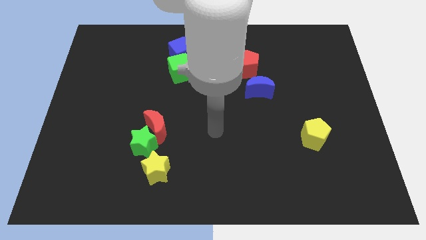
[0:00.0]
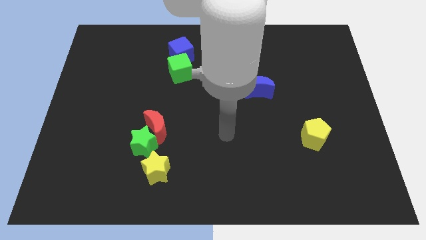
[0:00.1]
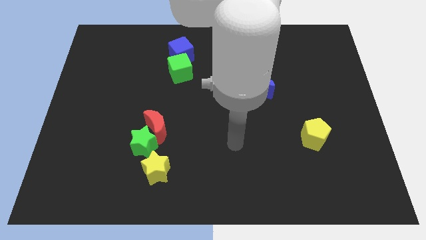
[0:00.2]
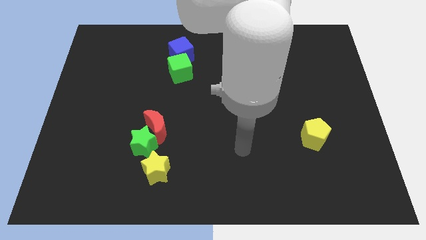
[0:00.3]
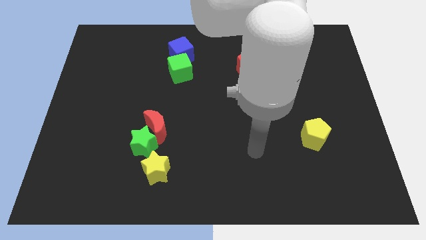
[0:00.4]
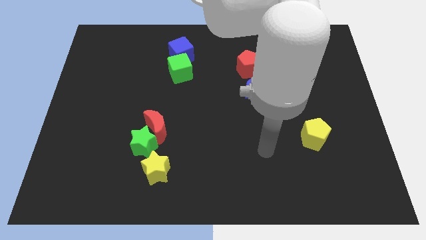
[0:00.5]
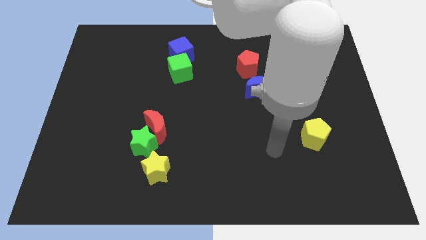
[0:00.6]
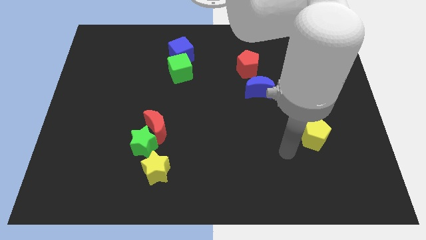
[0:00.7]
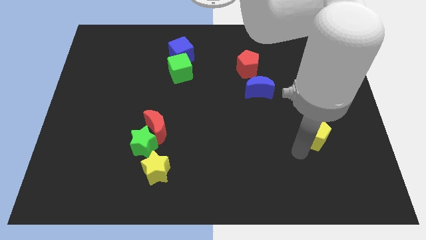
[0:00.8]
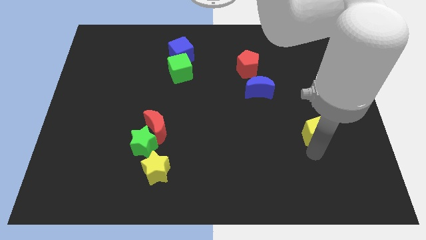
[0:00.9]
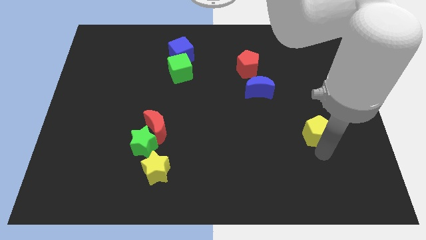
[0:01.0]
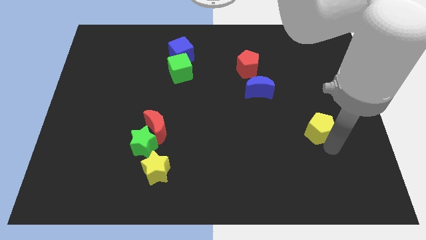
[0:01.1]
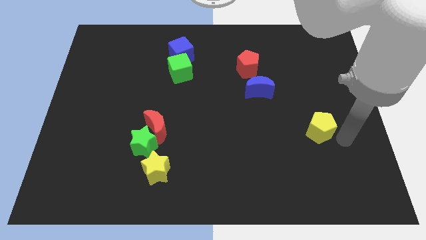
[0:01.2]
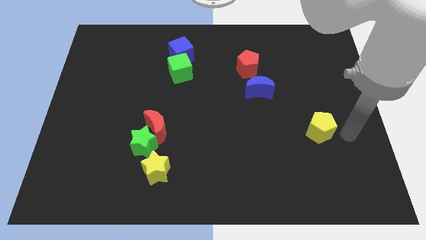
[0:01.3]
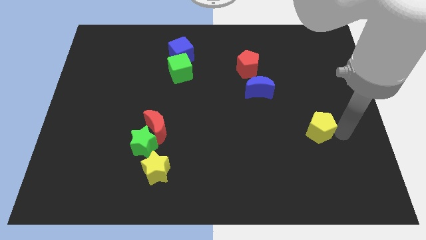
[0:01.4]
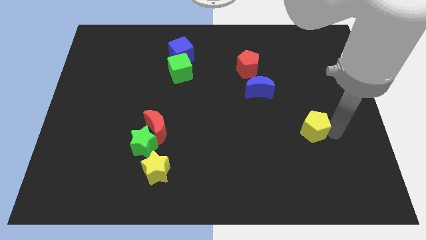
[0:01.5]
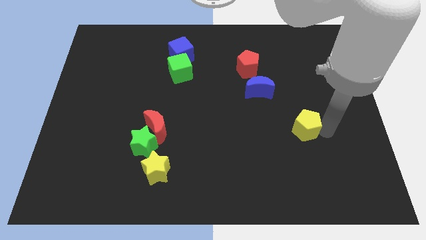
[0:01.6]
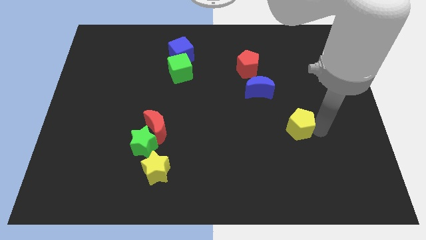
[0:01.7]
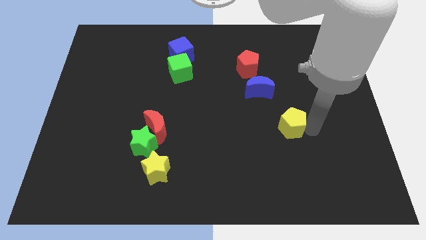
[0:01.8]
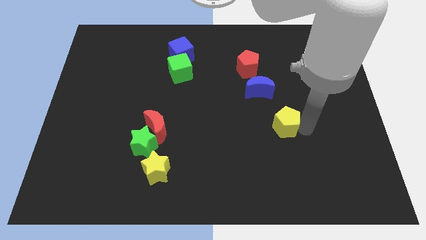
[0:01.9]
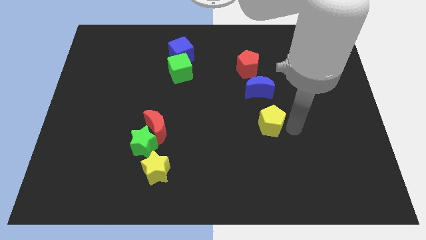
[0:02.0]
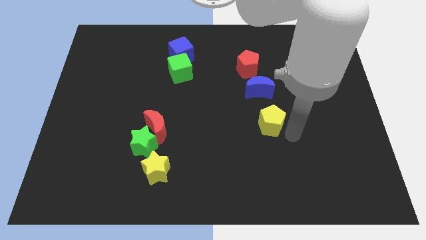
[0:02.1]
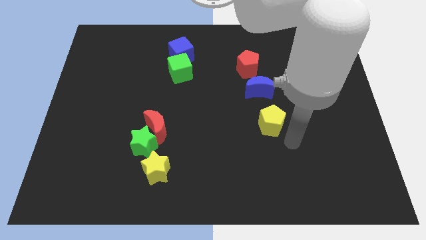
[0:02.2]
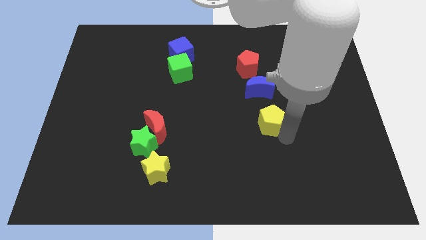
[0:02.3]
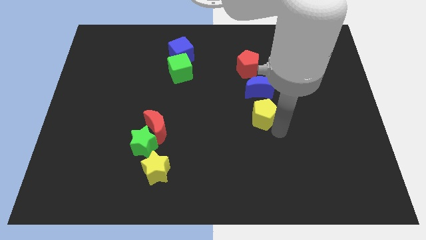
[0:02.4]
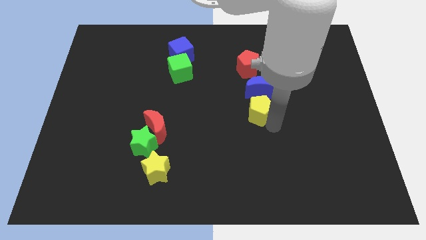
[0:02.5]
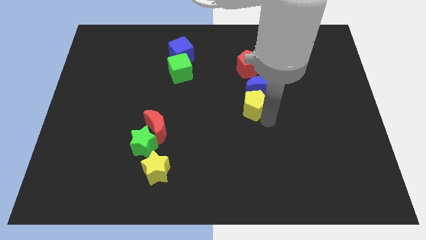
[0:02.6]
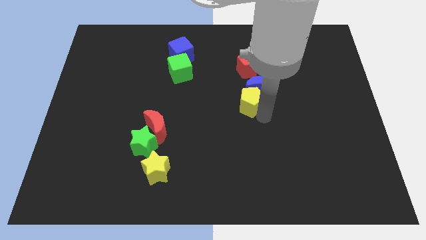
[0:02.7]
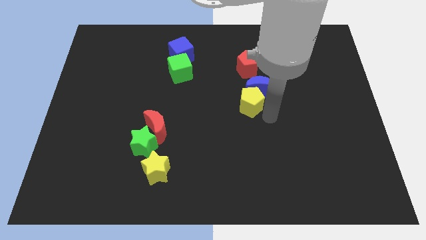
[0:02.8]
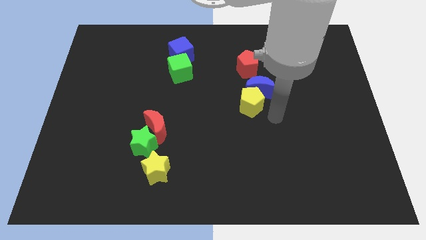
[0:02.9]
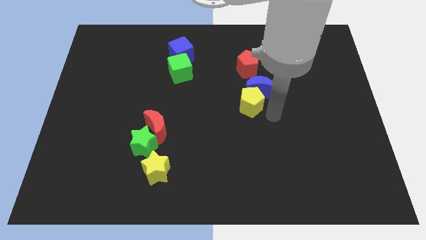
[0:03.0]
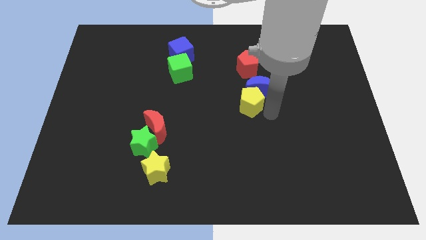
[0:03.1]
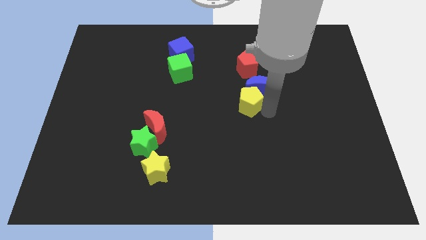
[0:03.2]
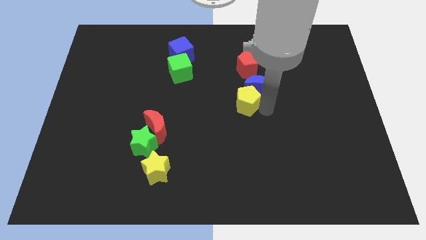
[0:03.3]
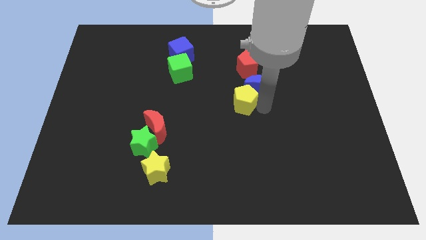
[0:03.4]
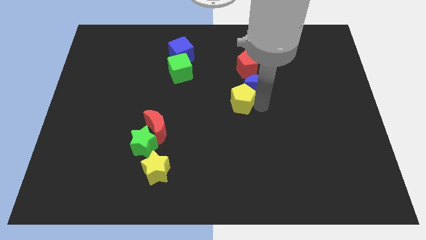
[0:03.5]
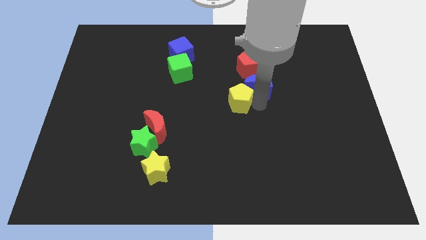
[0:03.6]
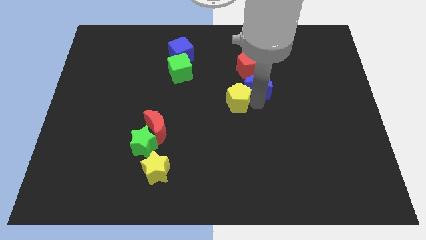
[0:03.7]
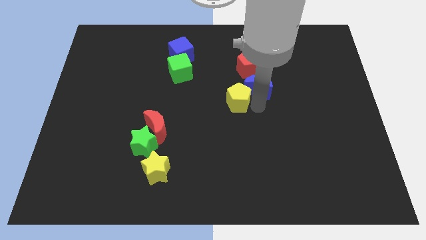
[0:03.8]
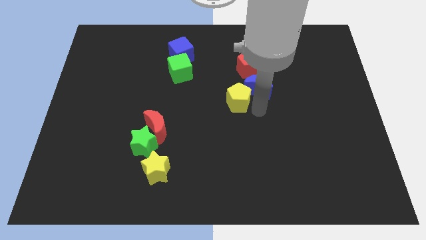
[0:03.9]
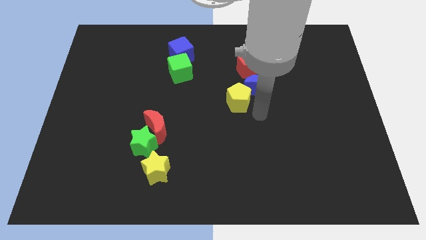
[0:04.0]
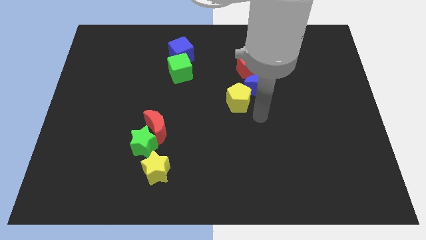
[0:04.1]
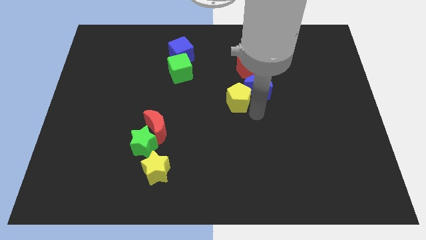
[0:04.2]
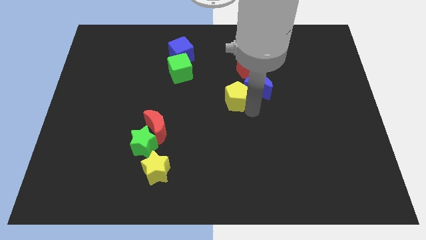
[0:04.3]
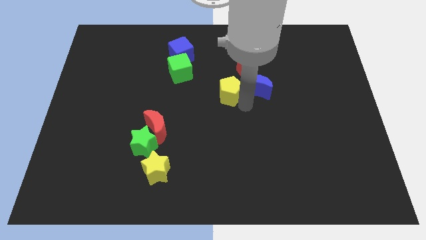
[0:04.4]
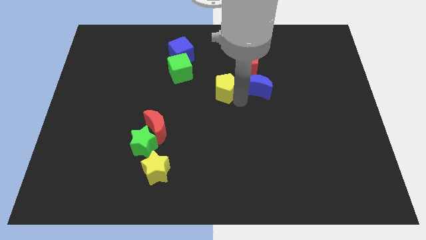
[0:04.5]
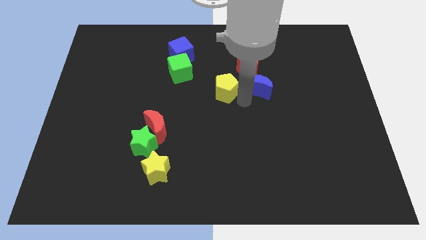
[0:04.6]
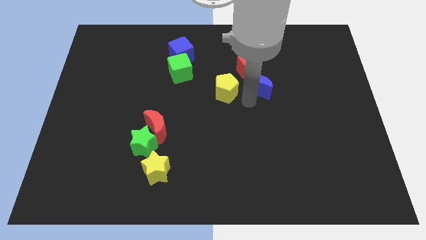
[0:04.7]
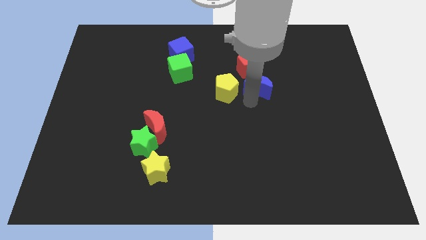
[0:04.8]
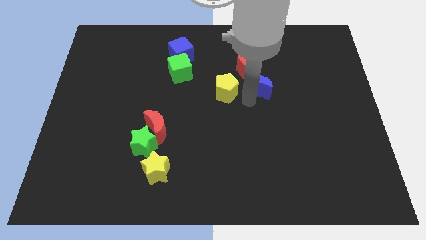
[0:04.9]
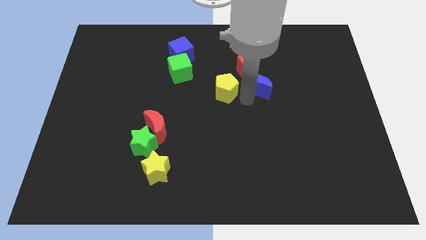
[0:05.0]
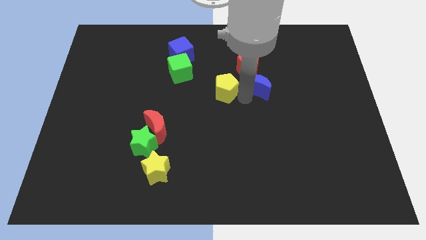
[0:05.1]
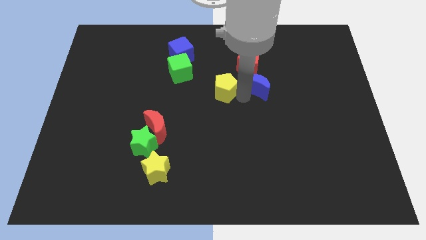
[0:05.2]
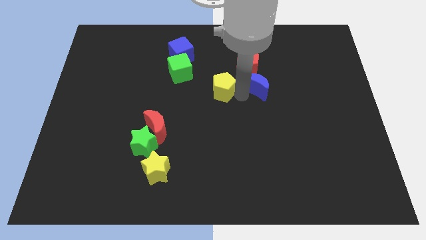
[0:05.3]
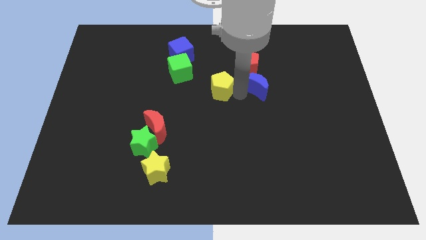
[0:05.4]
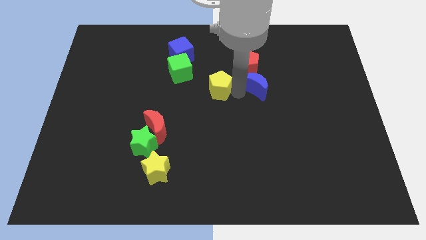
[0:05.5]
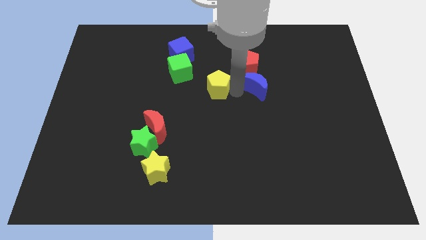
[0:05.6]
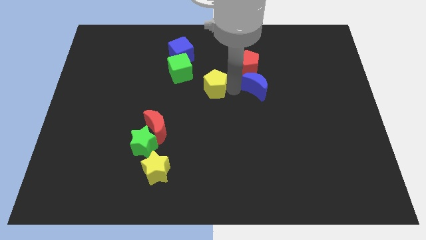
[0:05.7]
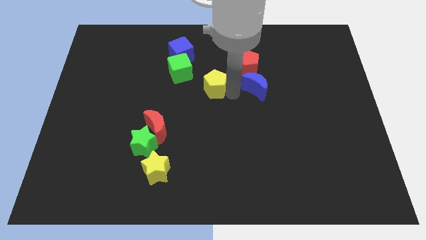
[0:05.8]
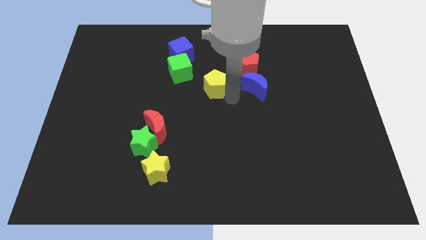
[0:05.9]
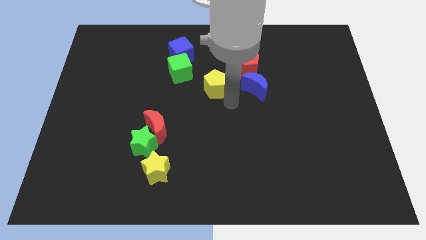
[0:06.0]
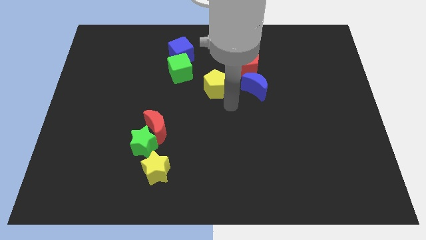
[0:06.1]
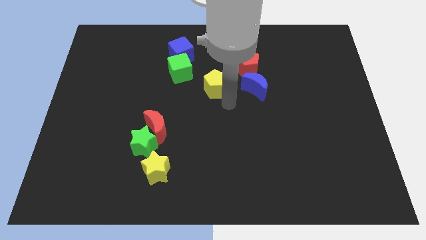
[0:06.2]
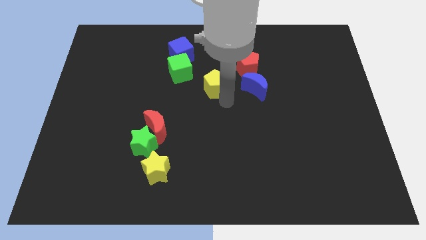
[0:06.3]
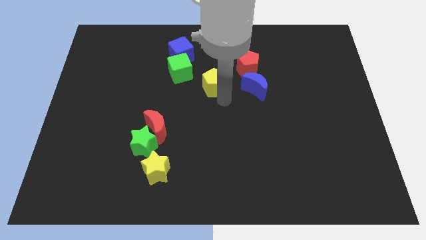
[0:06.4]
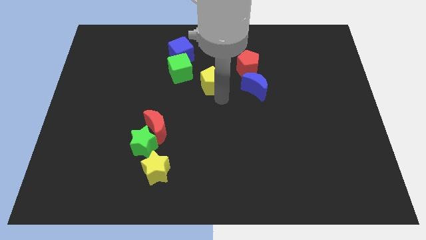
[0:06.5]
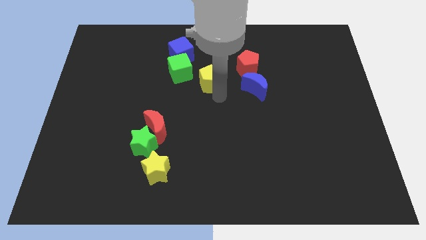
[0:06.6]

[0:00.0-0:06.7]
push the yellow pentagon to the bottom right side of the blue cube

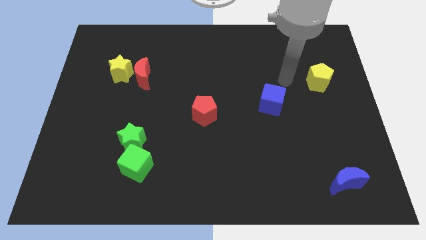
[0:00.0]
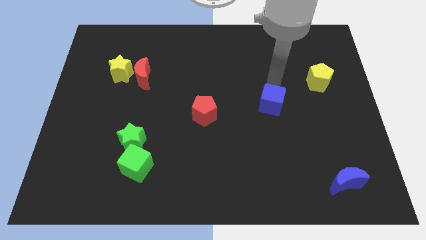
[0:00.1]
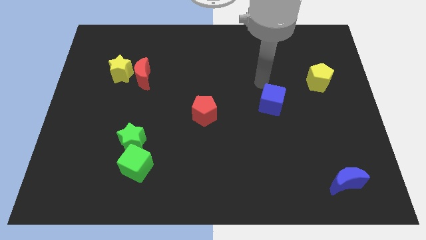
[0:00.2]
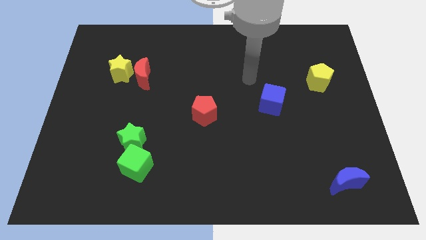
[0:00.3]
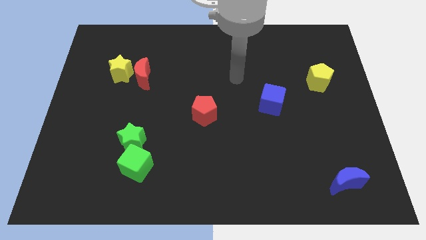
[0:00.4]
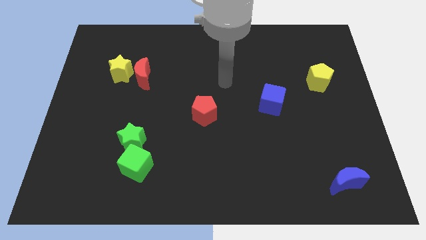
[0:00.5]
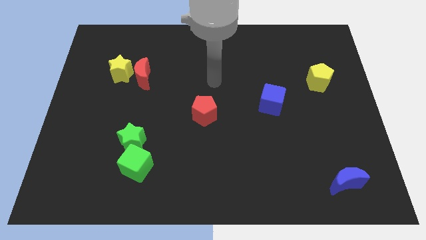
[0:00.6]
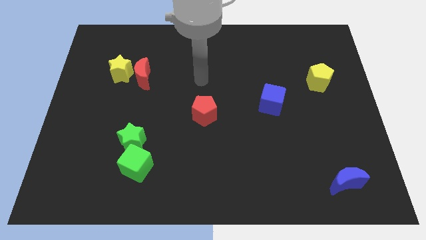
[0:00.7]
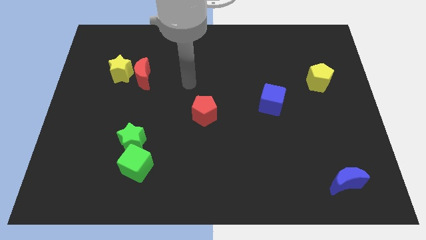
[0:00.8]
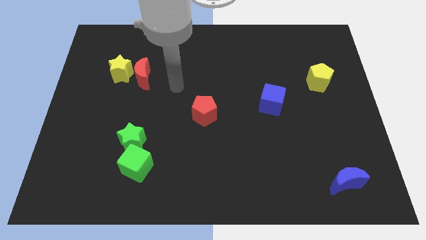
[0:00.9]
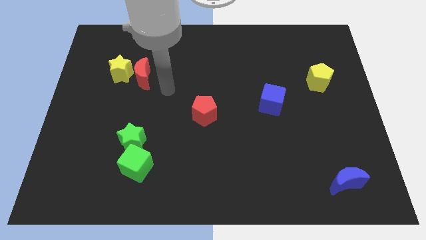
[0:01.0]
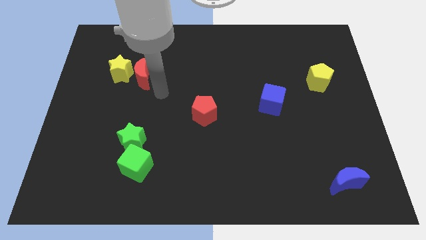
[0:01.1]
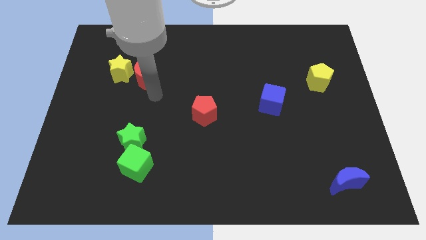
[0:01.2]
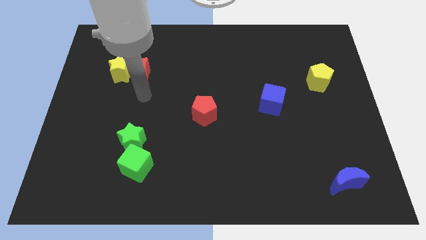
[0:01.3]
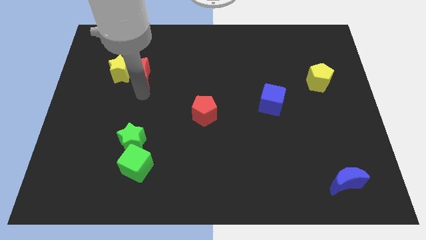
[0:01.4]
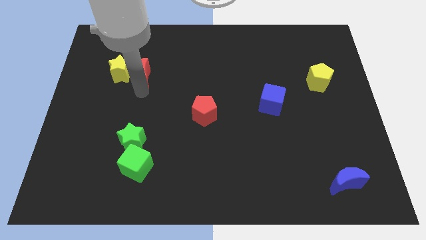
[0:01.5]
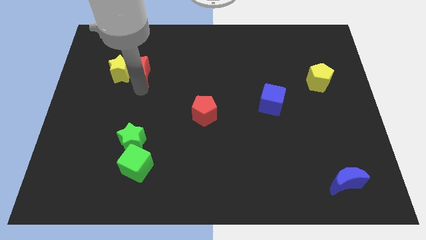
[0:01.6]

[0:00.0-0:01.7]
slide the red moon diagonally up and to the right of the yellow star
